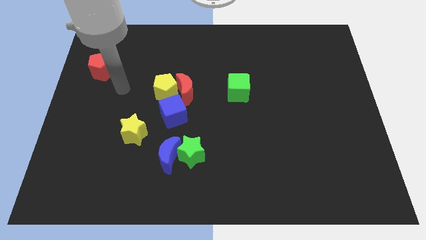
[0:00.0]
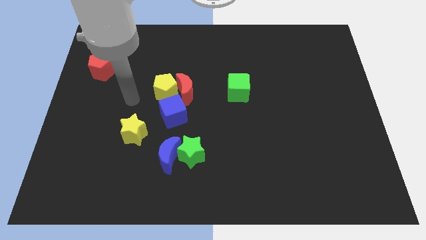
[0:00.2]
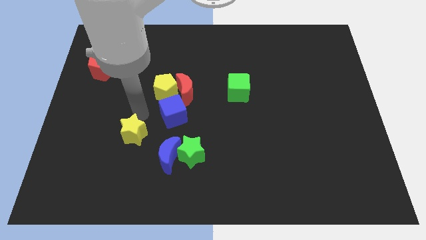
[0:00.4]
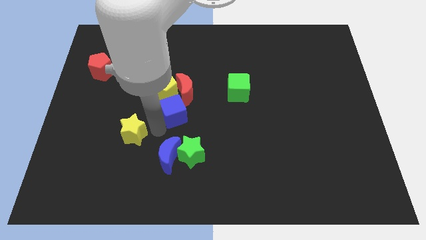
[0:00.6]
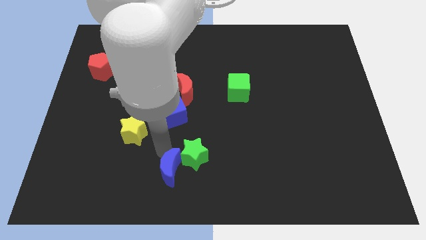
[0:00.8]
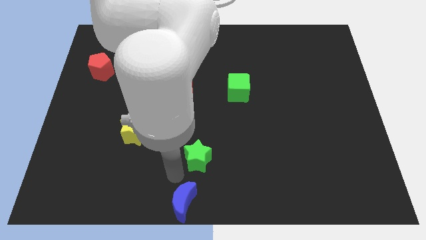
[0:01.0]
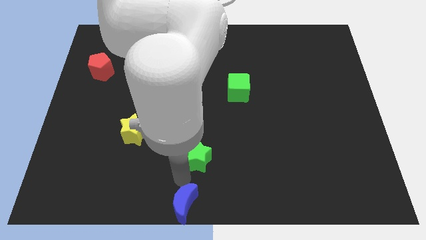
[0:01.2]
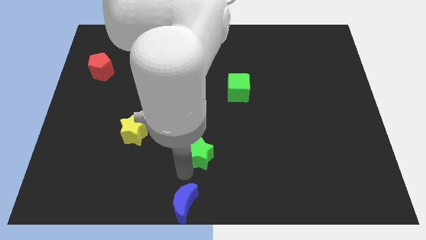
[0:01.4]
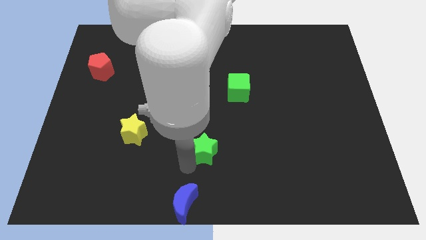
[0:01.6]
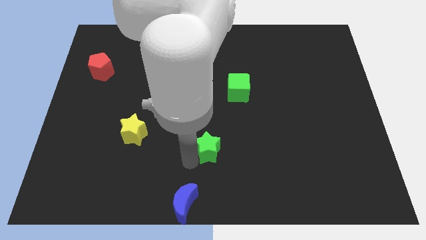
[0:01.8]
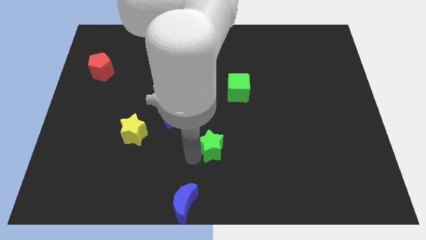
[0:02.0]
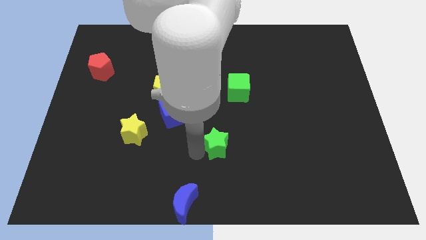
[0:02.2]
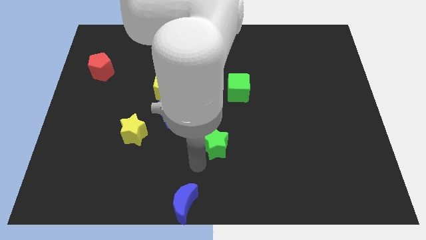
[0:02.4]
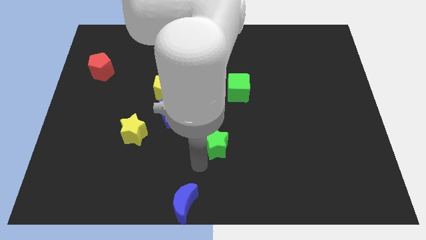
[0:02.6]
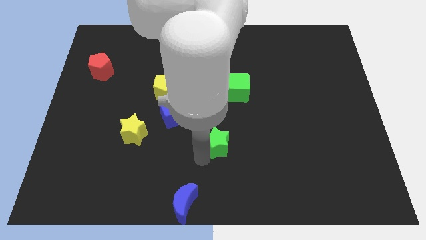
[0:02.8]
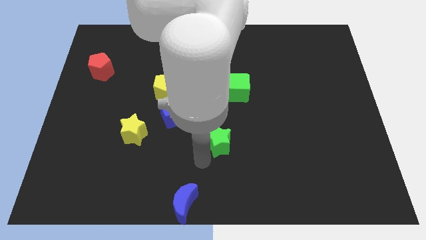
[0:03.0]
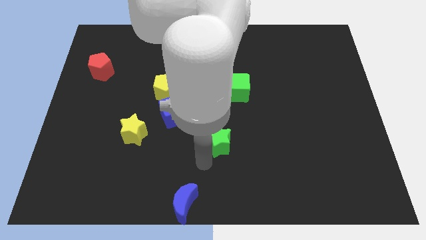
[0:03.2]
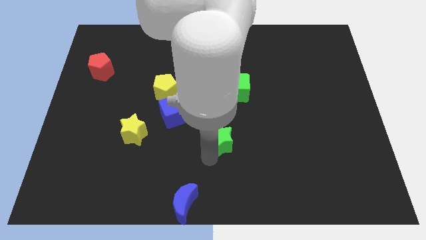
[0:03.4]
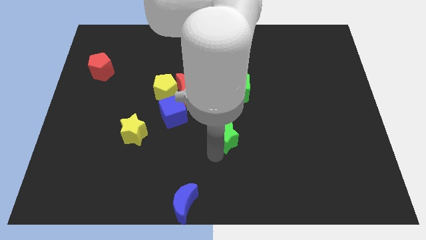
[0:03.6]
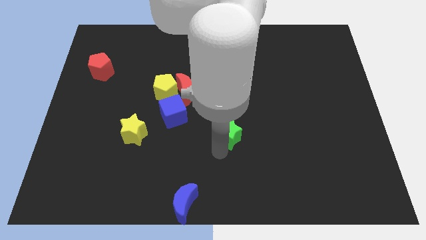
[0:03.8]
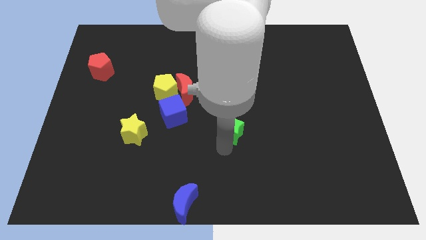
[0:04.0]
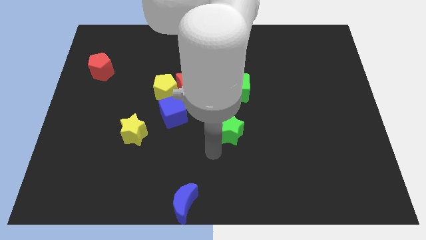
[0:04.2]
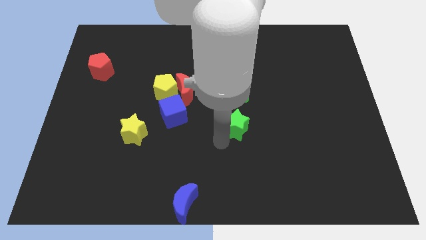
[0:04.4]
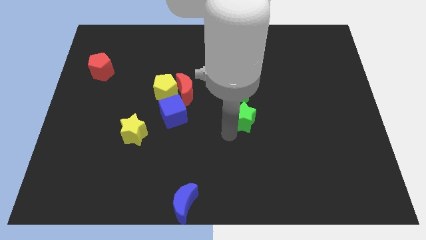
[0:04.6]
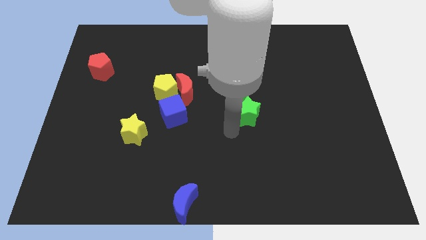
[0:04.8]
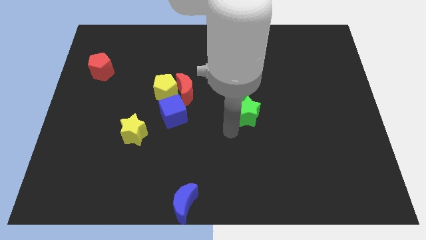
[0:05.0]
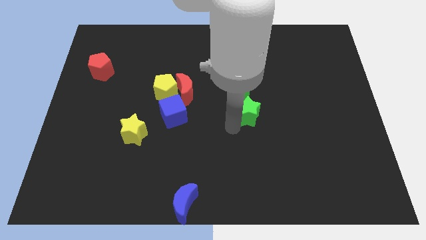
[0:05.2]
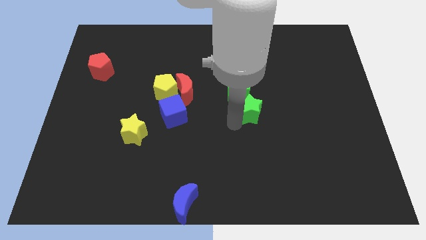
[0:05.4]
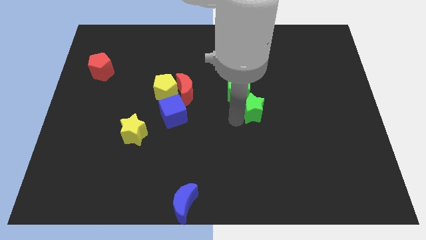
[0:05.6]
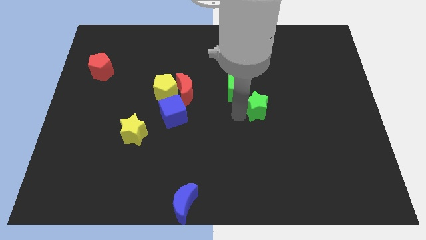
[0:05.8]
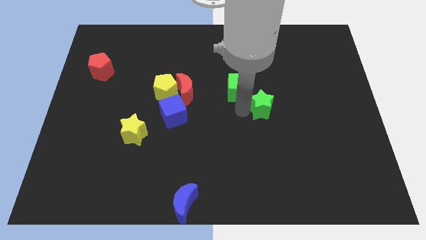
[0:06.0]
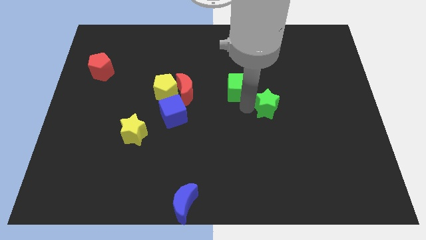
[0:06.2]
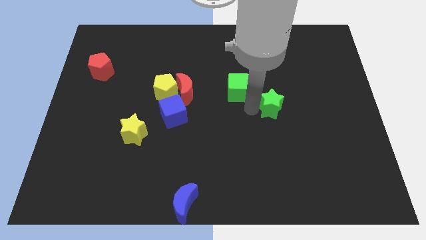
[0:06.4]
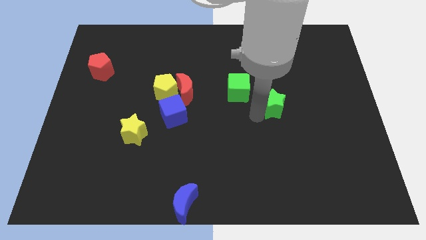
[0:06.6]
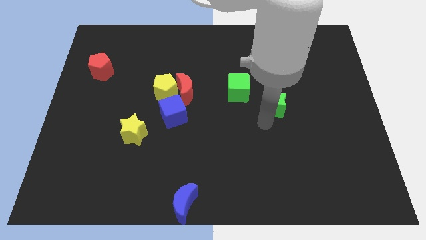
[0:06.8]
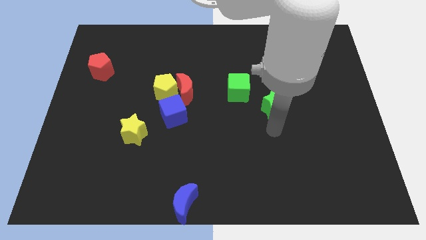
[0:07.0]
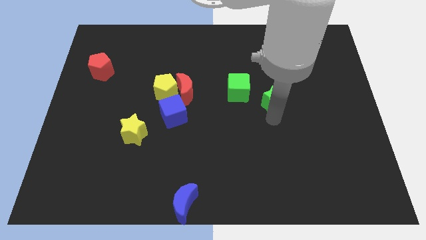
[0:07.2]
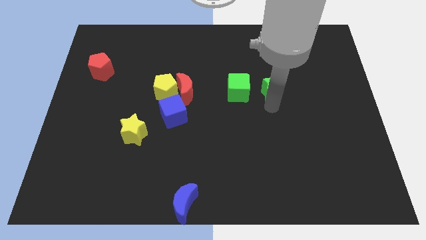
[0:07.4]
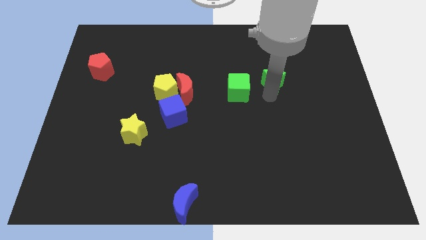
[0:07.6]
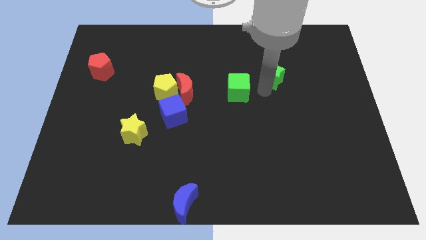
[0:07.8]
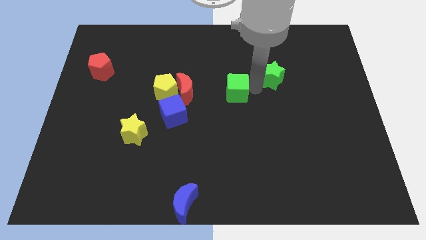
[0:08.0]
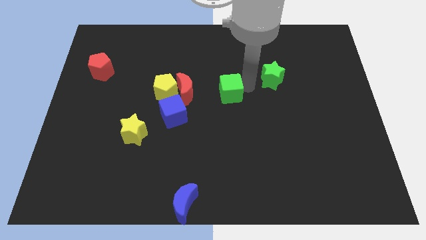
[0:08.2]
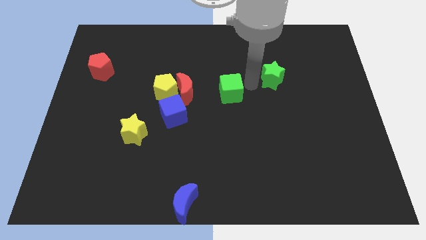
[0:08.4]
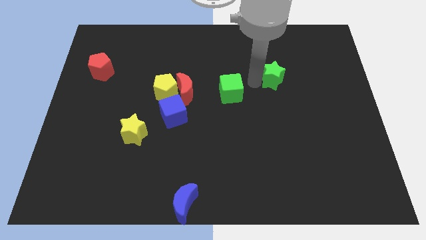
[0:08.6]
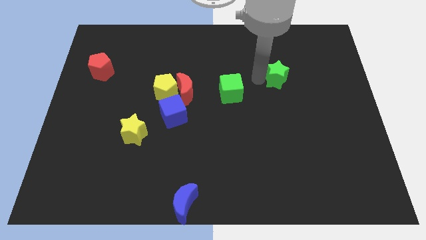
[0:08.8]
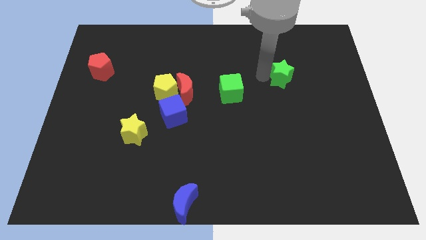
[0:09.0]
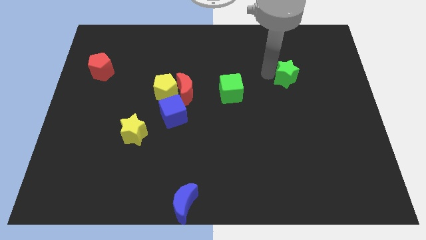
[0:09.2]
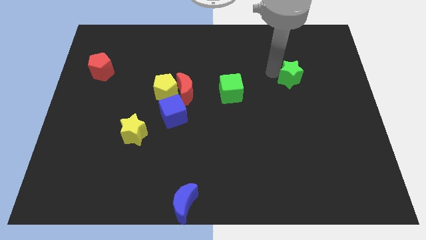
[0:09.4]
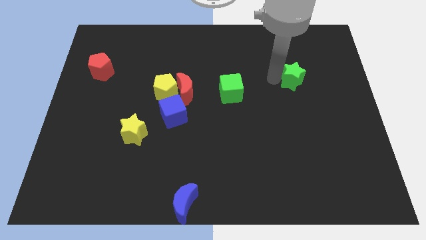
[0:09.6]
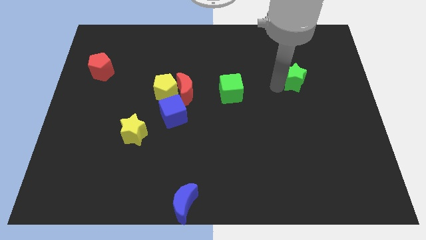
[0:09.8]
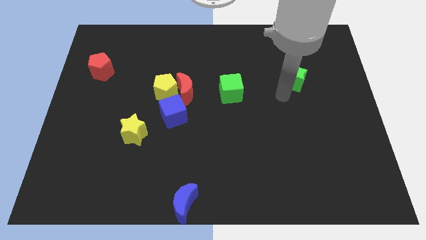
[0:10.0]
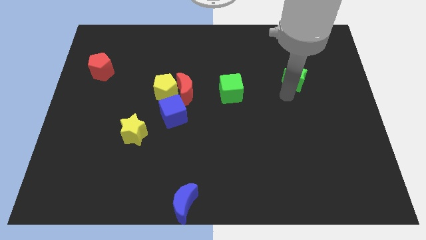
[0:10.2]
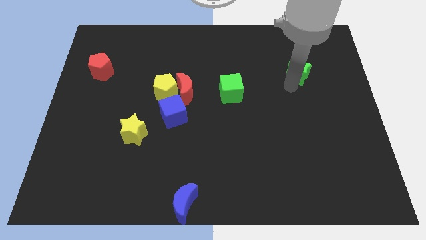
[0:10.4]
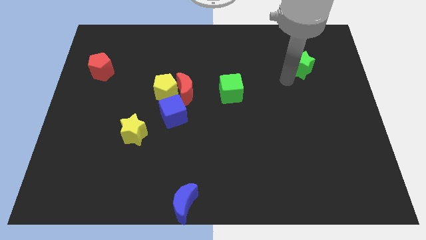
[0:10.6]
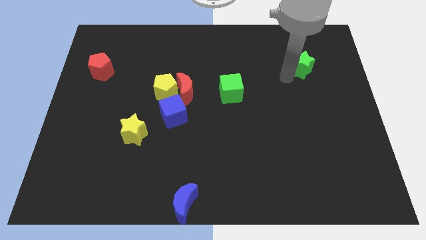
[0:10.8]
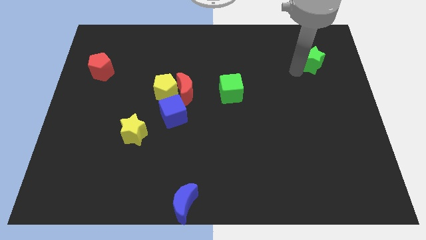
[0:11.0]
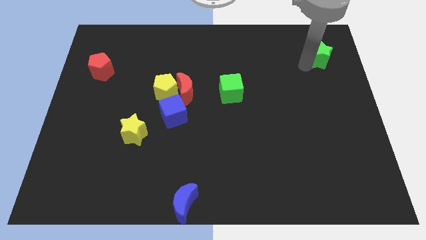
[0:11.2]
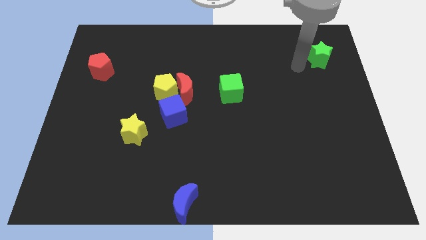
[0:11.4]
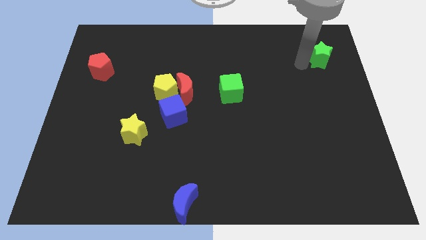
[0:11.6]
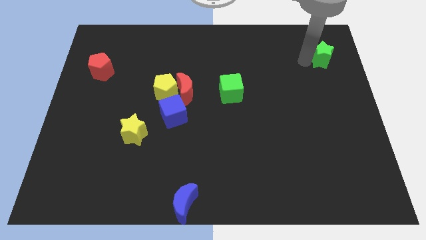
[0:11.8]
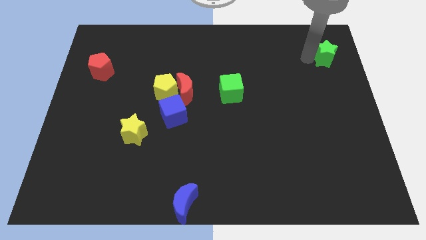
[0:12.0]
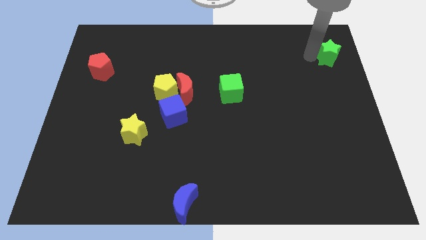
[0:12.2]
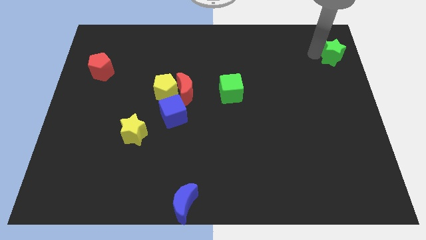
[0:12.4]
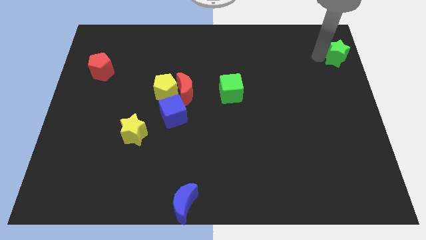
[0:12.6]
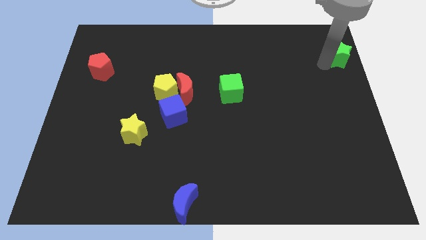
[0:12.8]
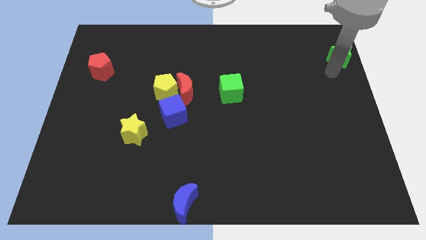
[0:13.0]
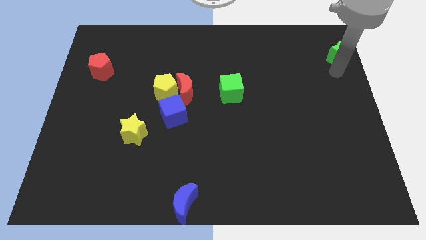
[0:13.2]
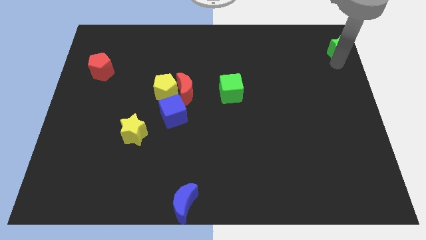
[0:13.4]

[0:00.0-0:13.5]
push the green star to the top right

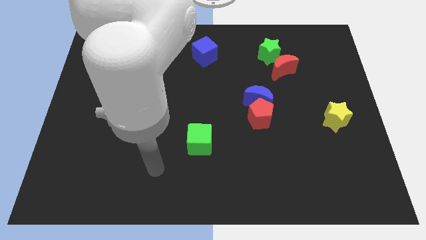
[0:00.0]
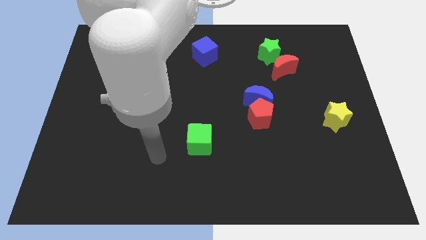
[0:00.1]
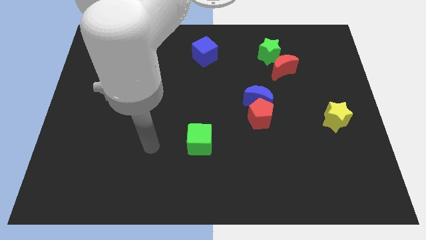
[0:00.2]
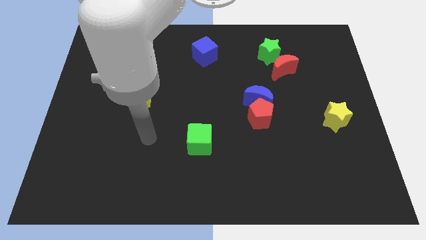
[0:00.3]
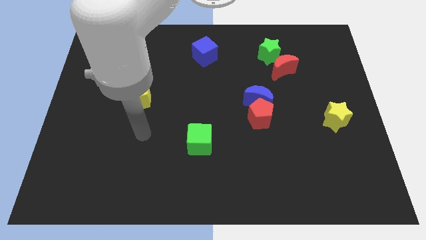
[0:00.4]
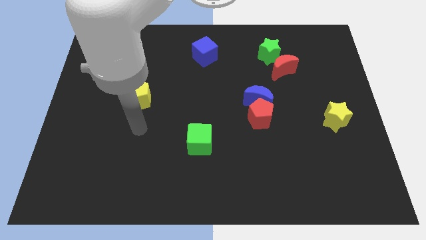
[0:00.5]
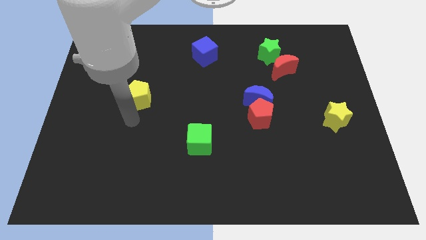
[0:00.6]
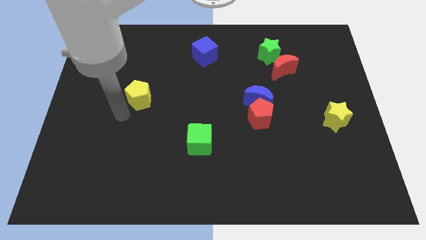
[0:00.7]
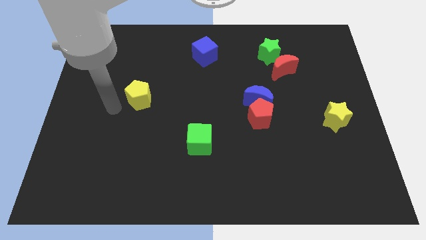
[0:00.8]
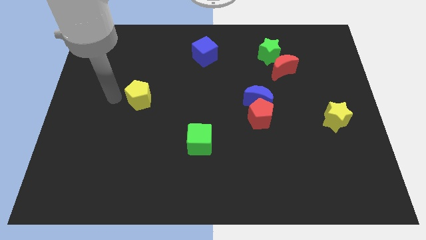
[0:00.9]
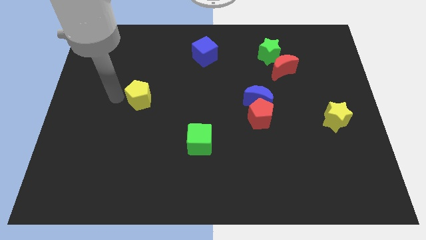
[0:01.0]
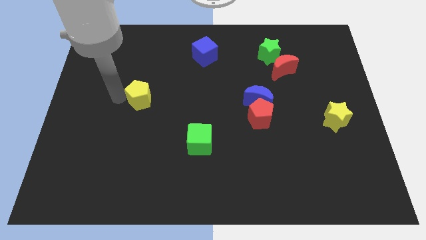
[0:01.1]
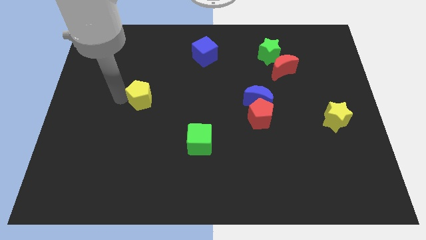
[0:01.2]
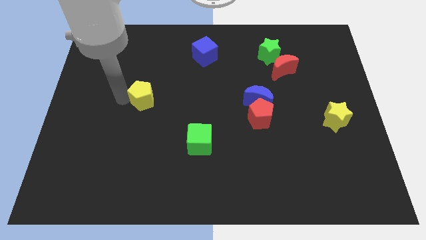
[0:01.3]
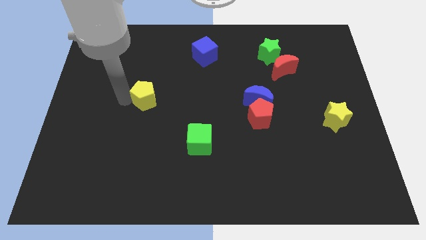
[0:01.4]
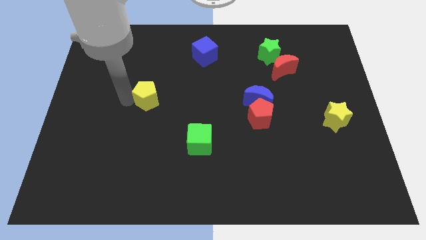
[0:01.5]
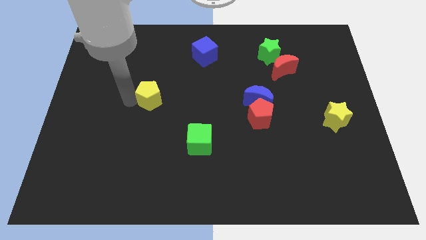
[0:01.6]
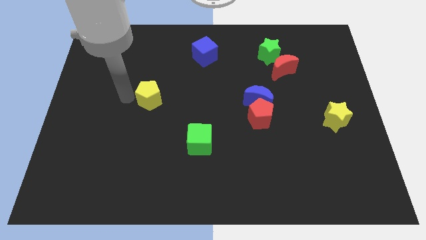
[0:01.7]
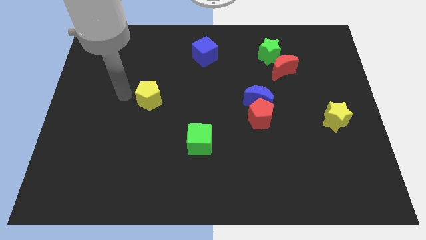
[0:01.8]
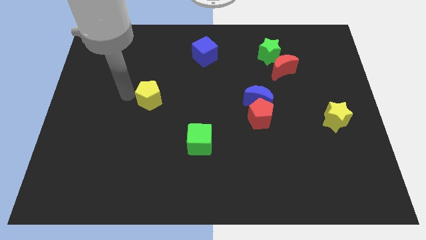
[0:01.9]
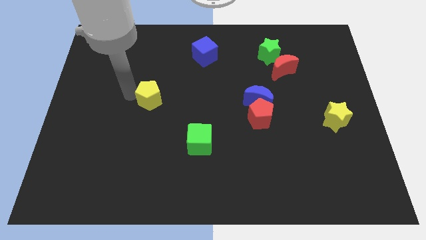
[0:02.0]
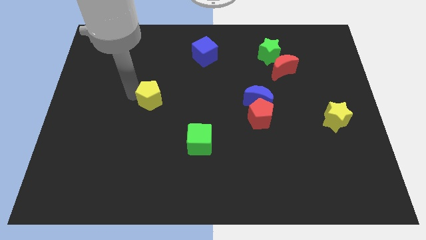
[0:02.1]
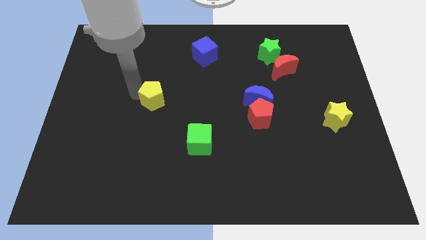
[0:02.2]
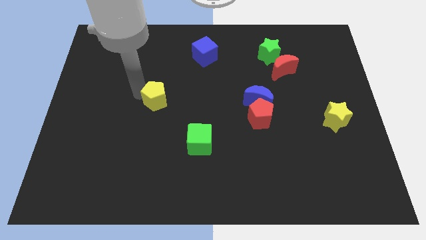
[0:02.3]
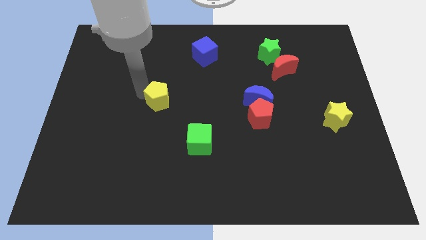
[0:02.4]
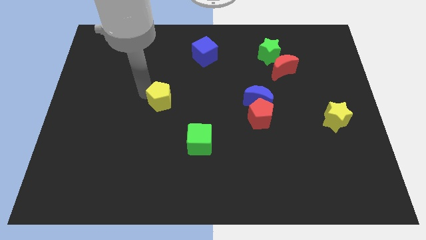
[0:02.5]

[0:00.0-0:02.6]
put the yellow pentagon to the center
